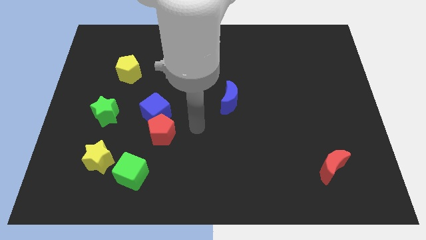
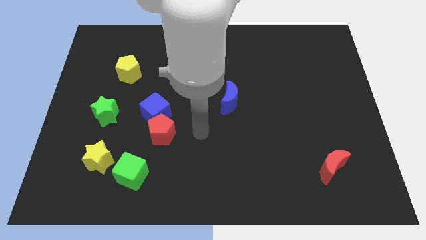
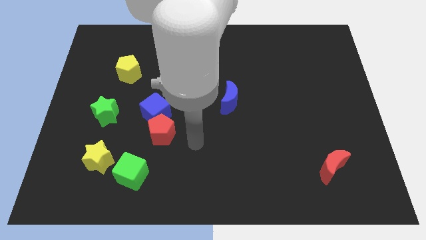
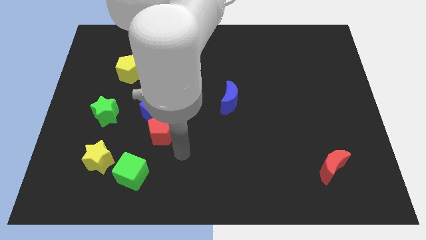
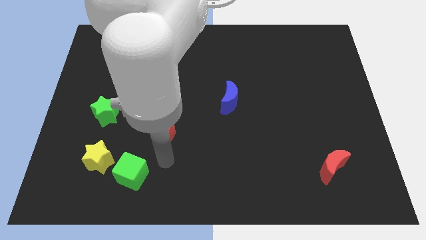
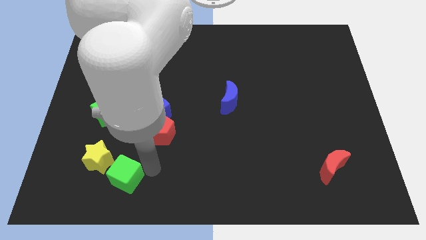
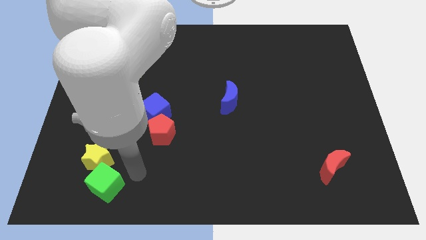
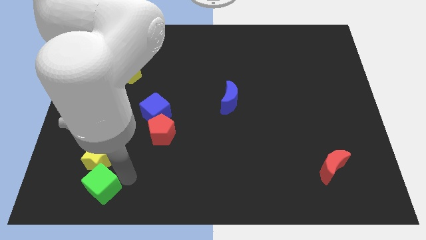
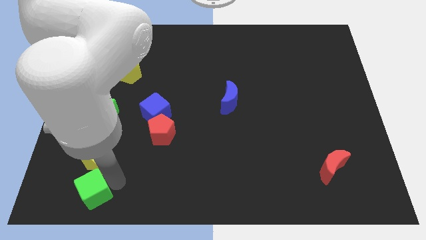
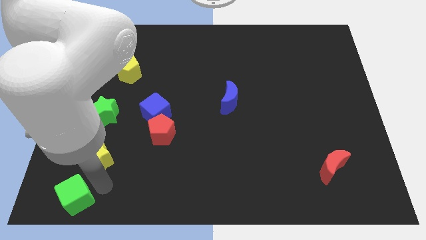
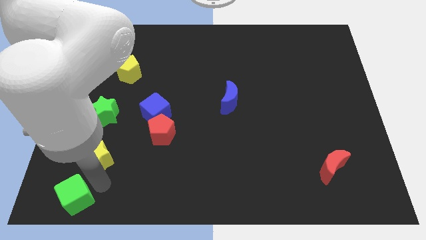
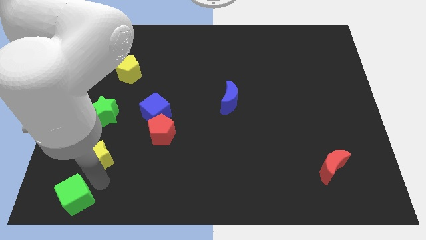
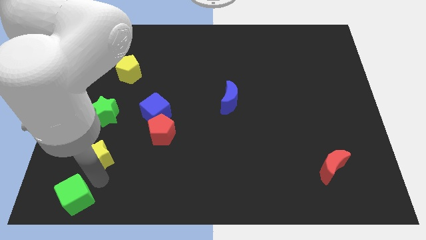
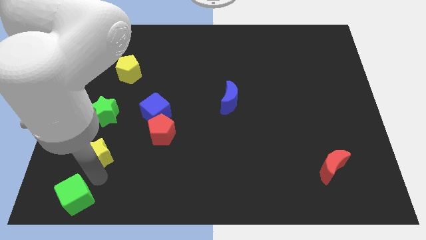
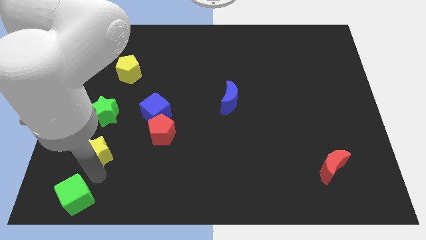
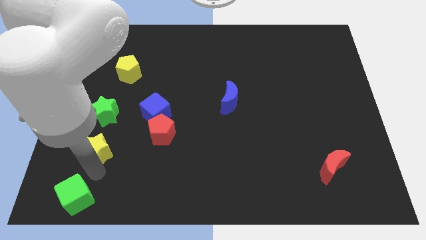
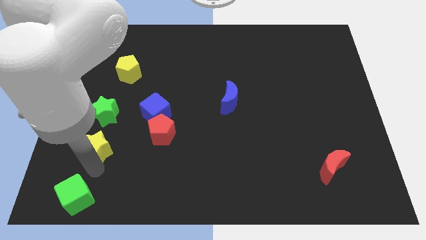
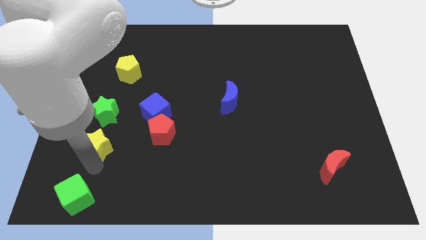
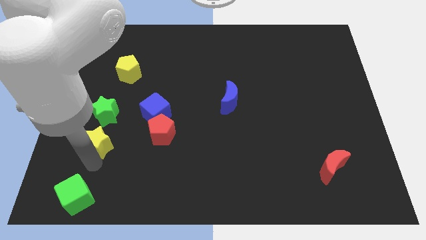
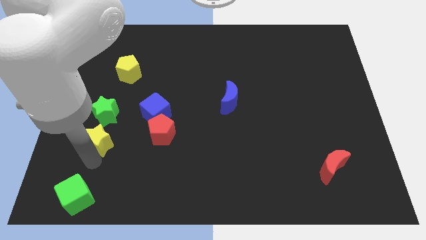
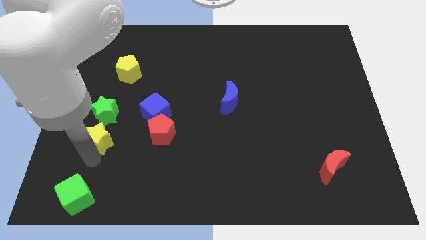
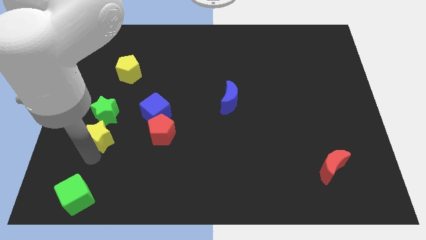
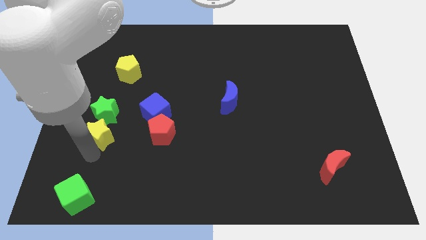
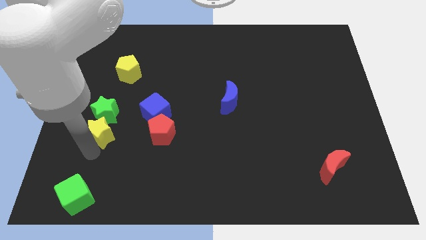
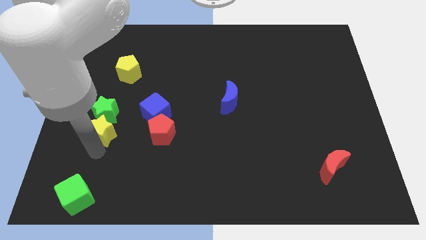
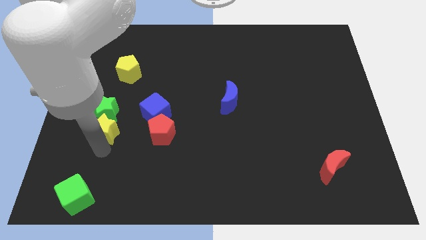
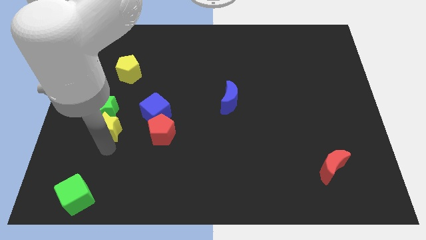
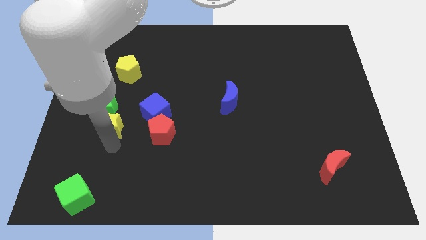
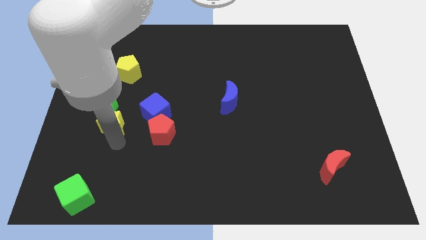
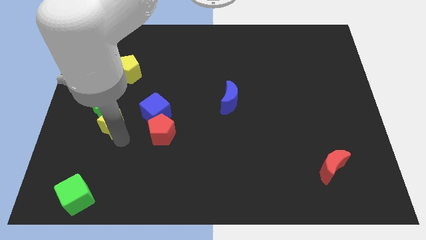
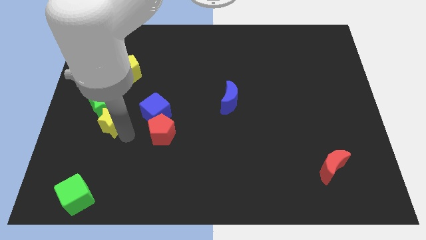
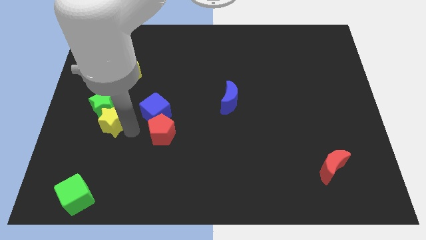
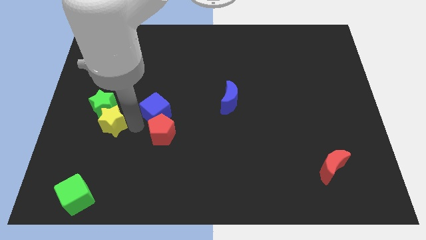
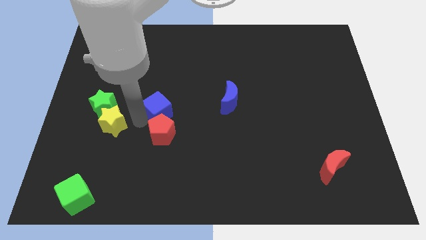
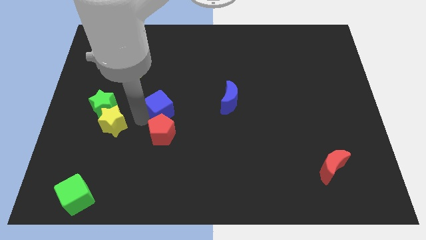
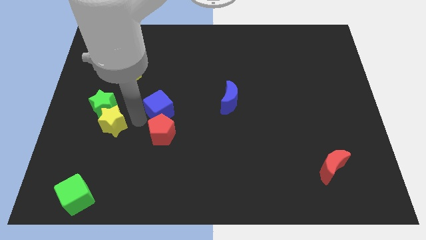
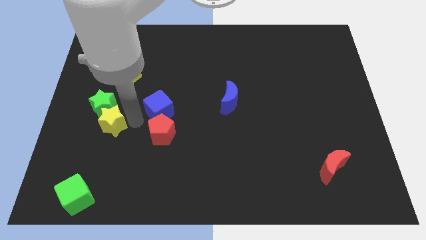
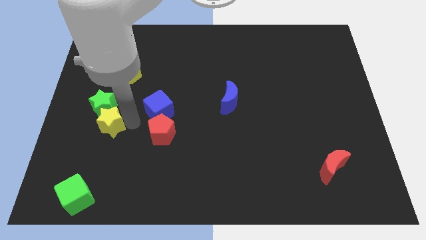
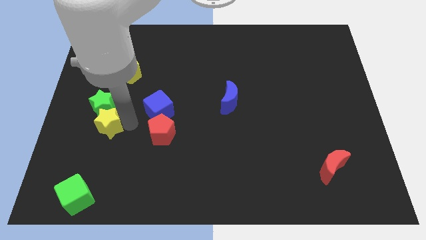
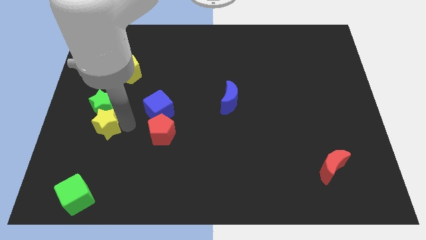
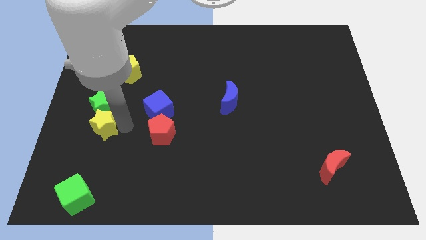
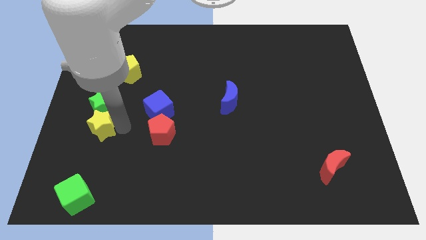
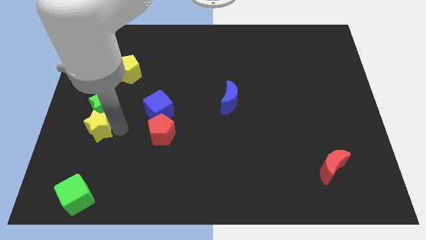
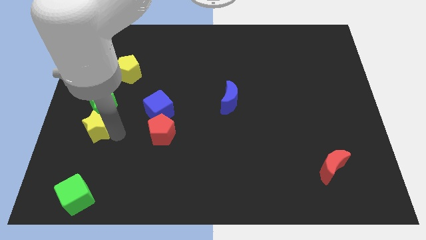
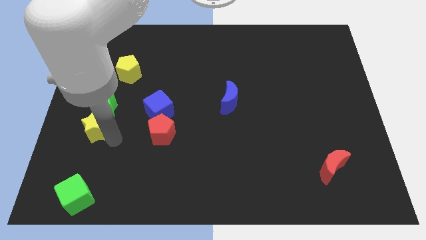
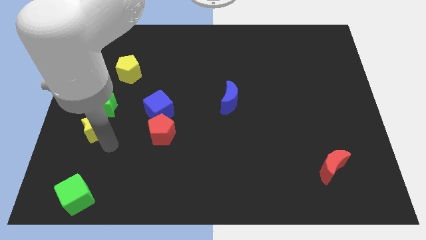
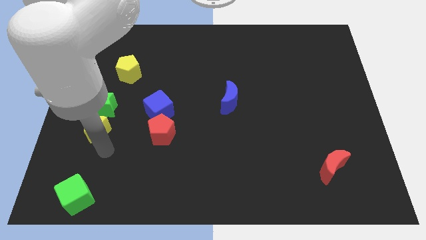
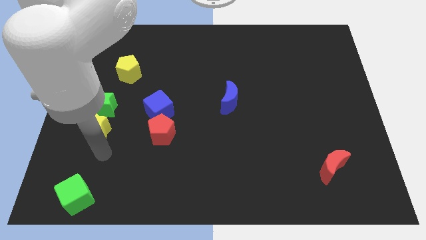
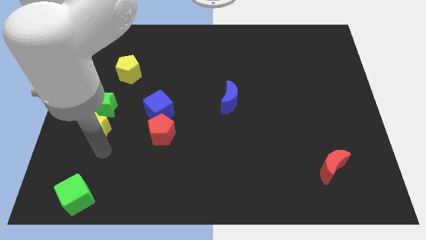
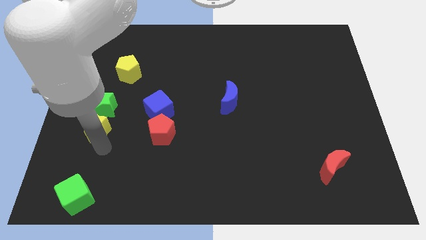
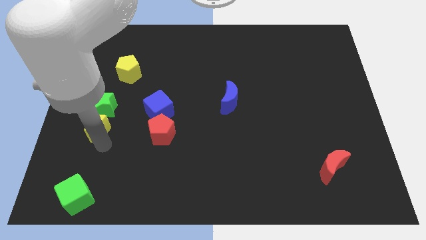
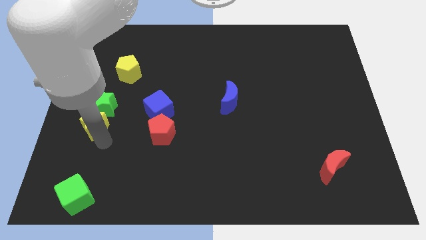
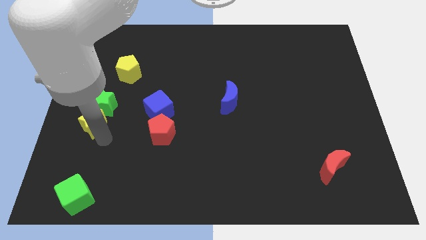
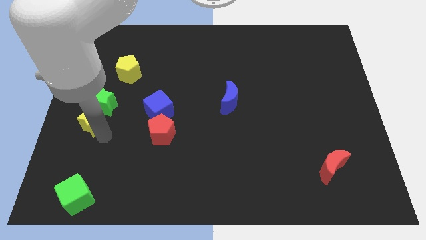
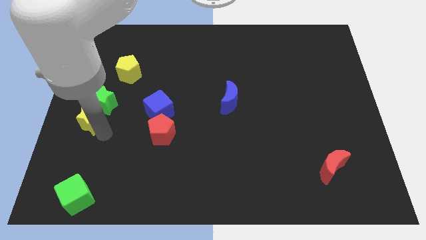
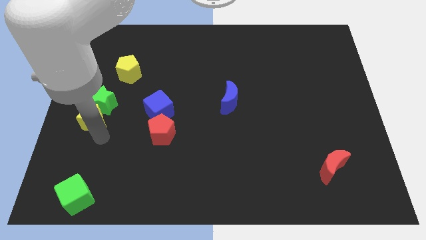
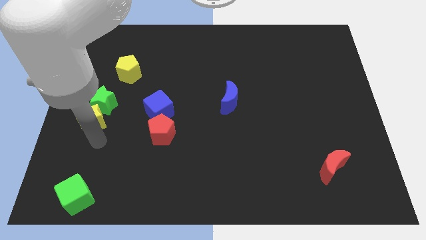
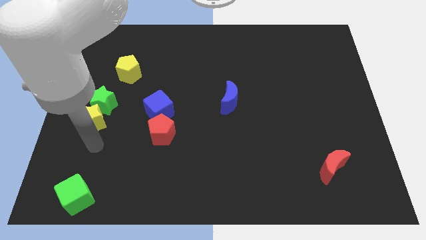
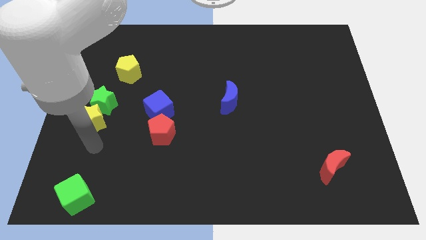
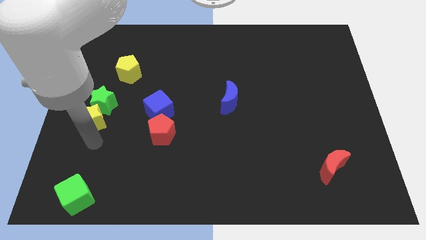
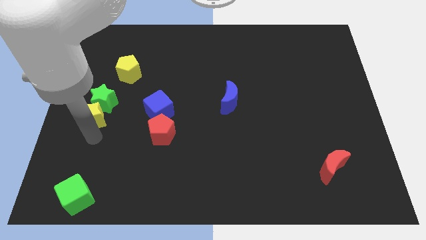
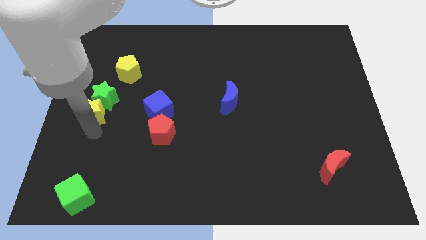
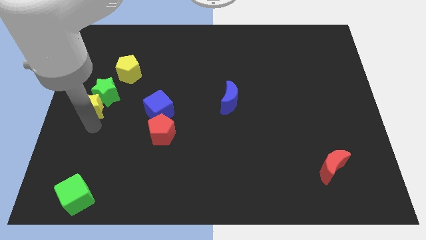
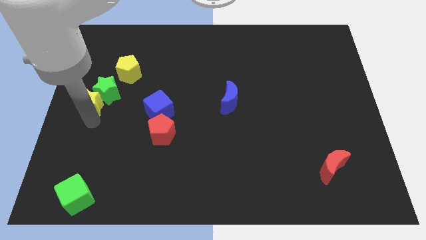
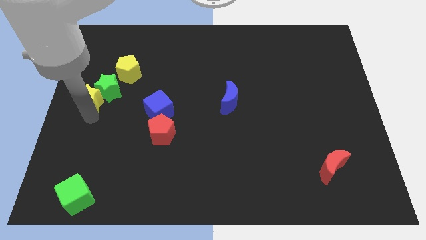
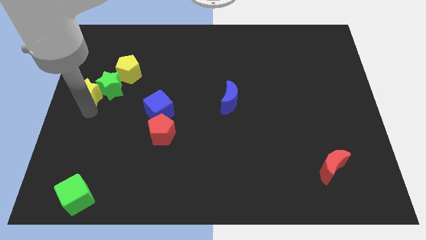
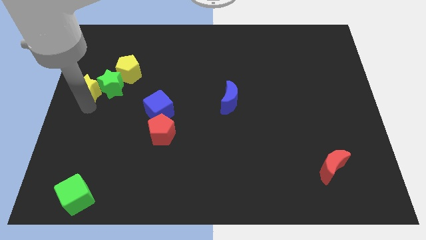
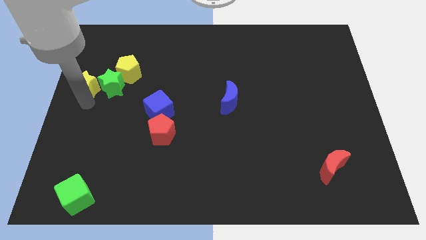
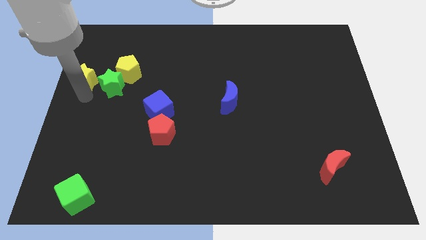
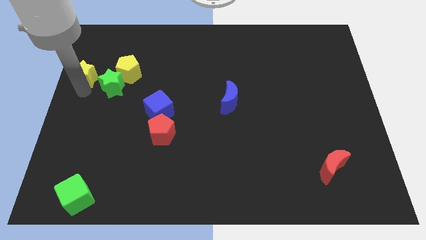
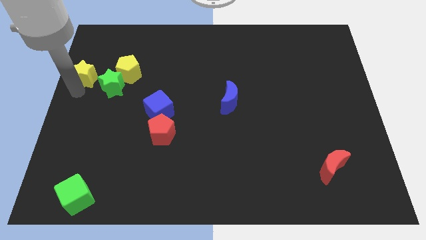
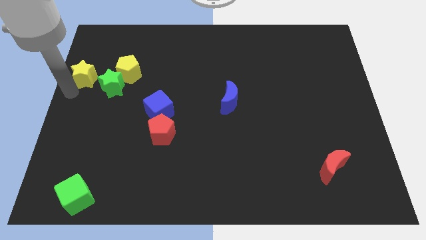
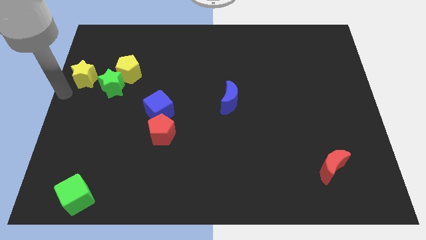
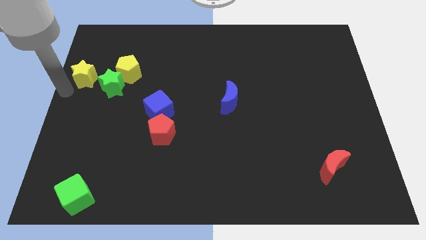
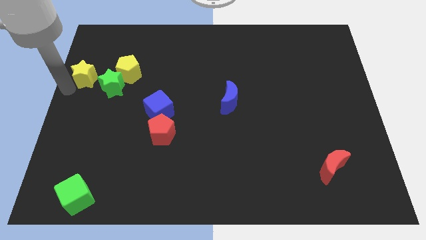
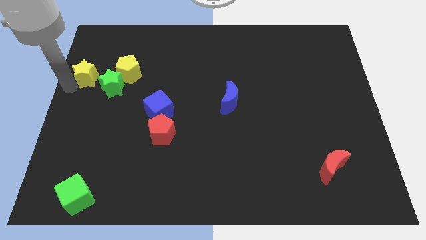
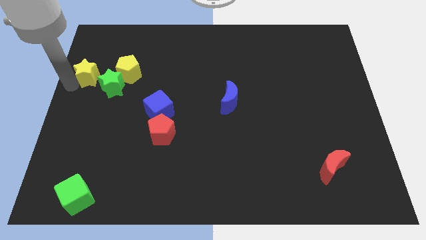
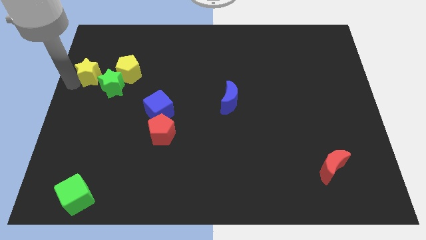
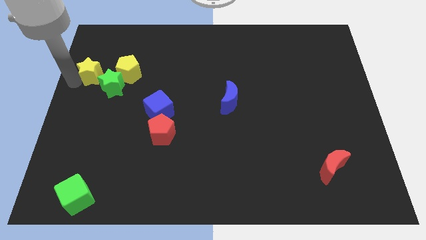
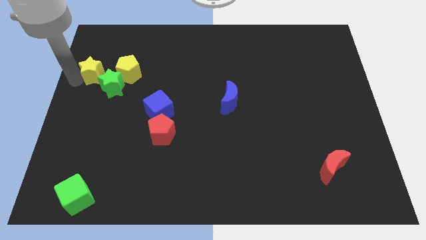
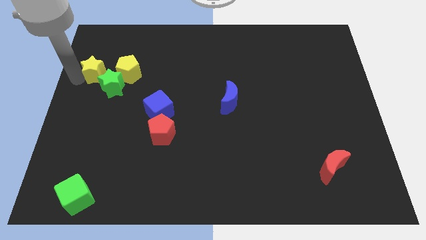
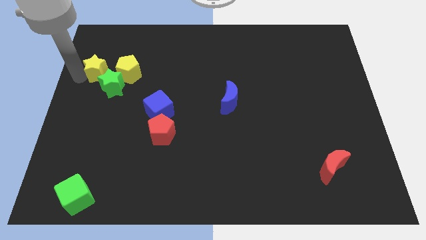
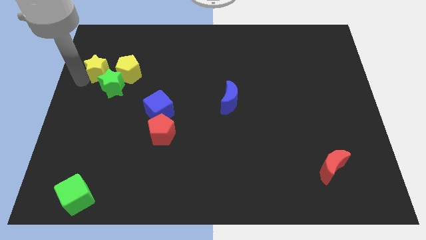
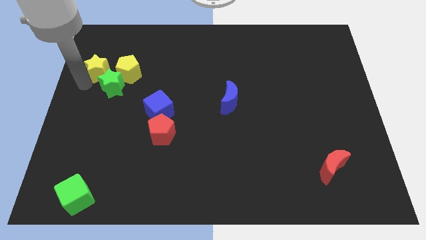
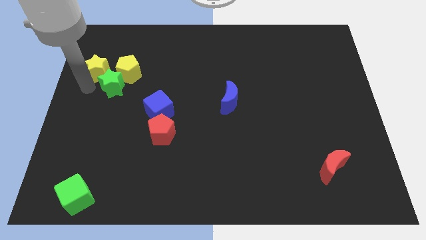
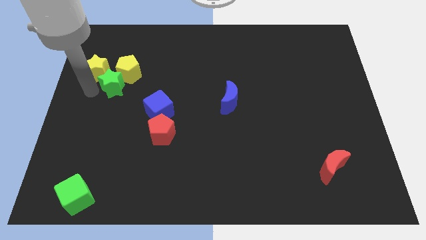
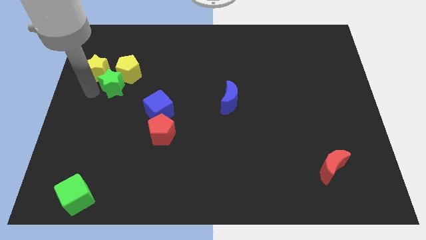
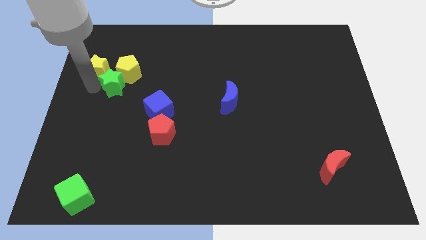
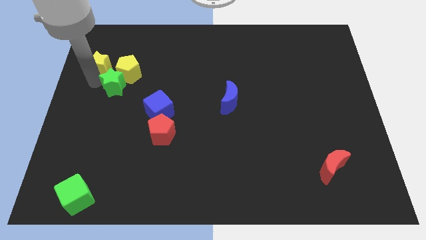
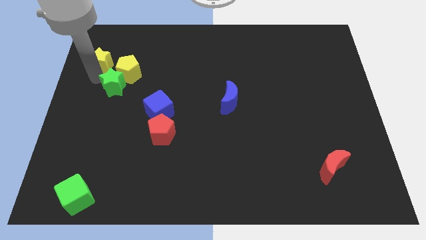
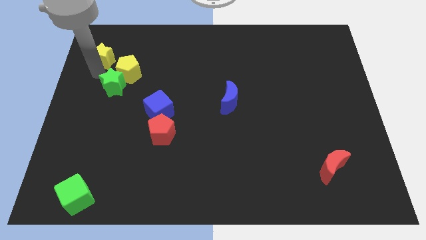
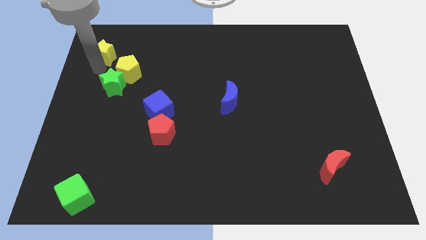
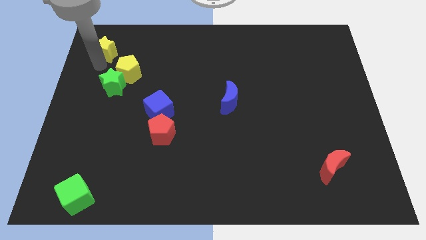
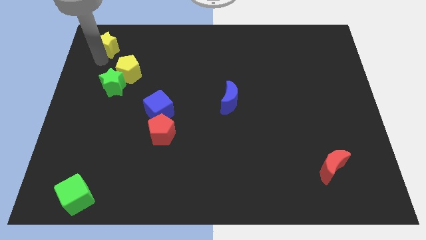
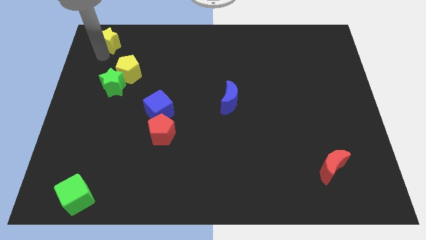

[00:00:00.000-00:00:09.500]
move the yellow star to the top left of the board
